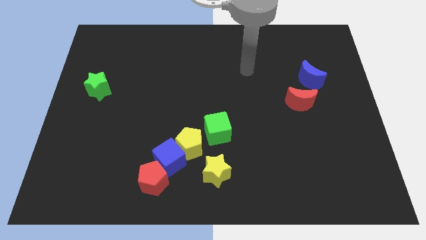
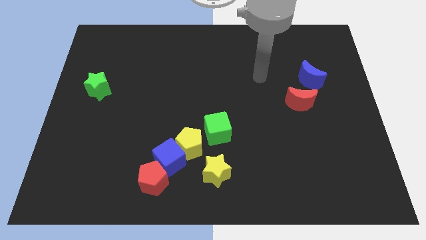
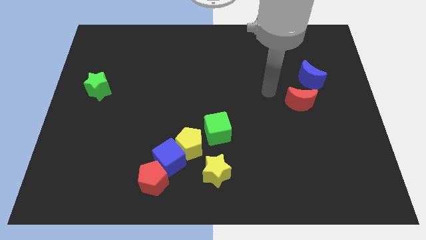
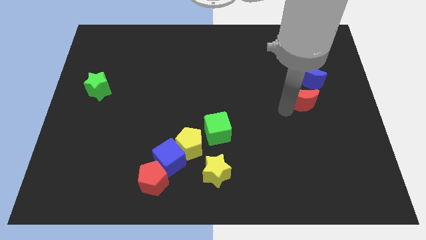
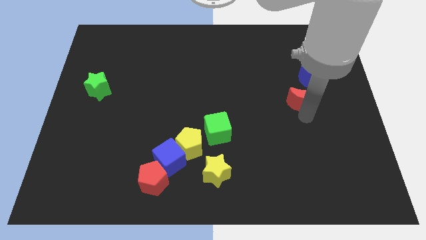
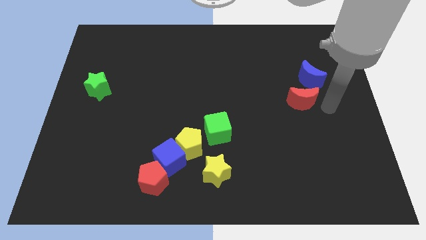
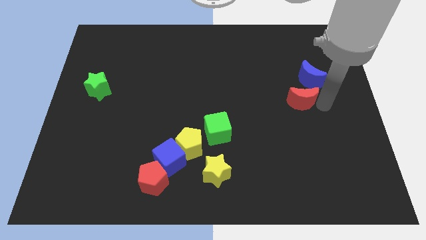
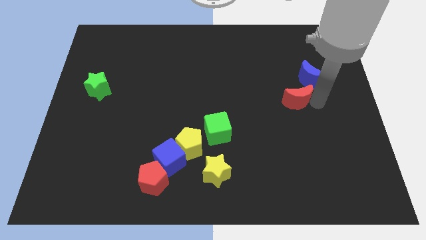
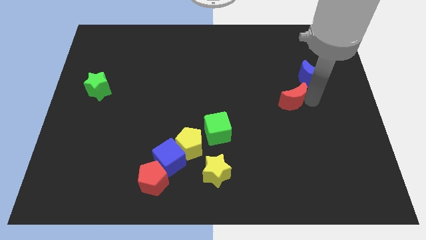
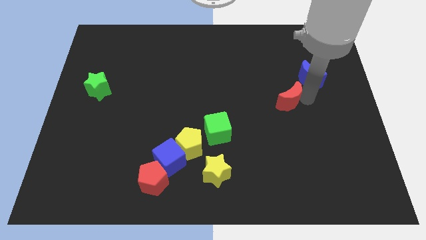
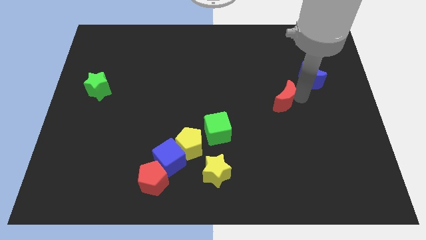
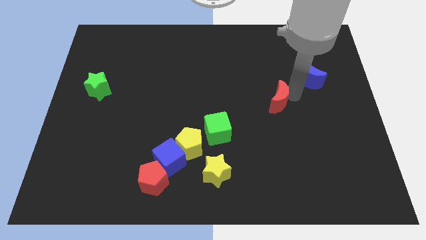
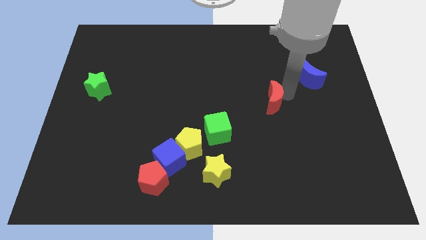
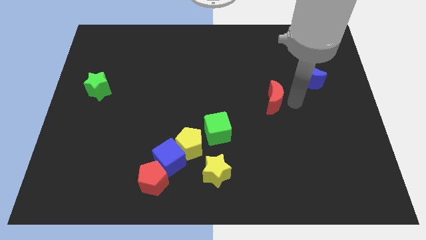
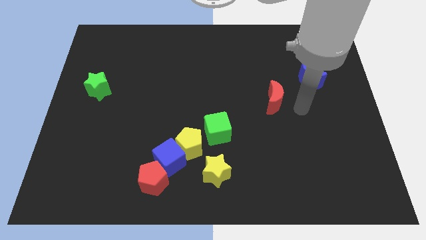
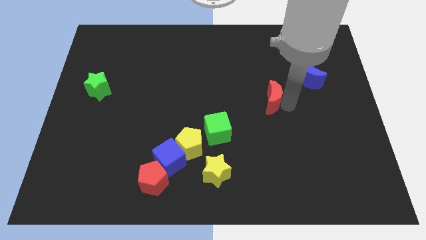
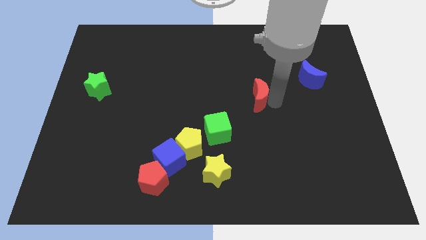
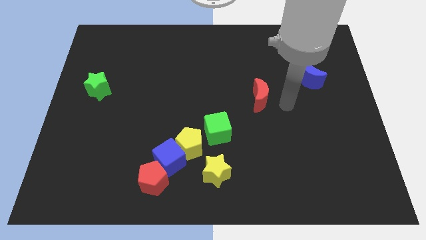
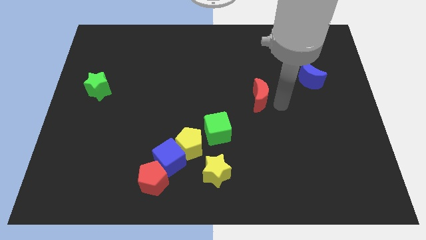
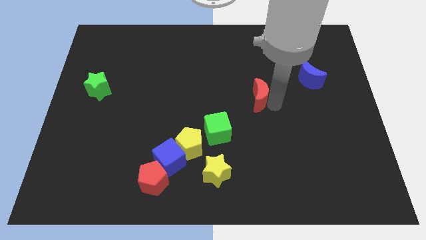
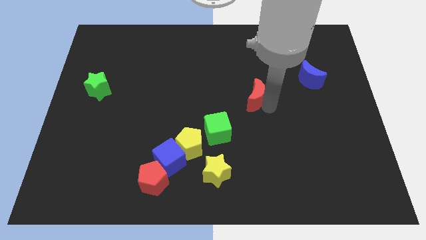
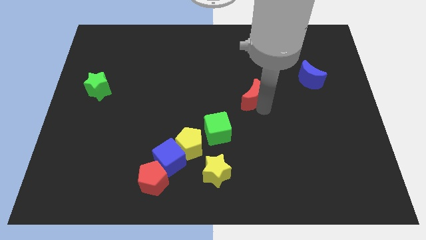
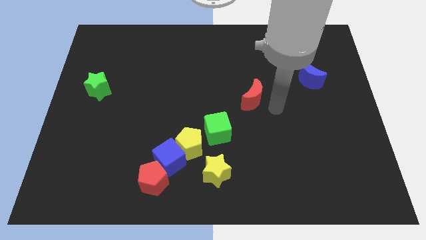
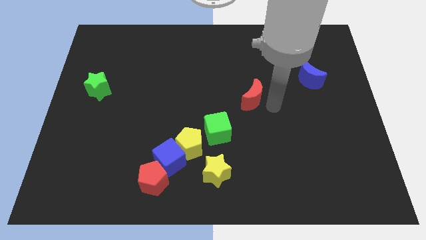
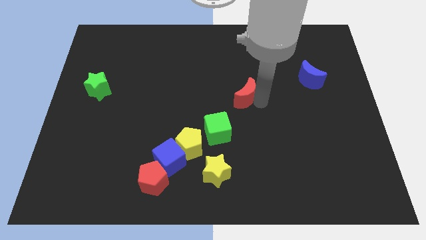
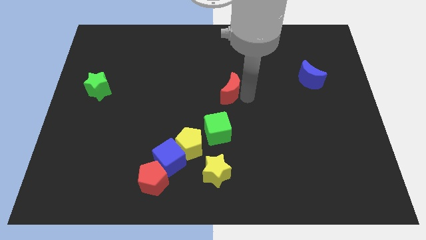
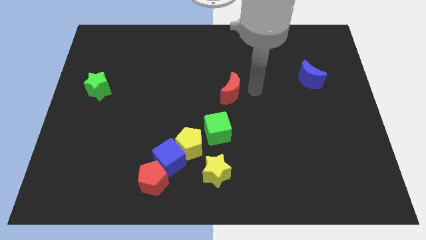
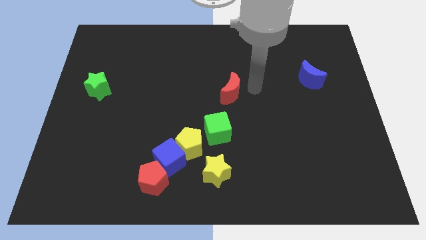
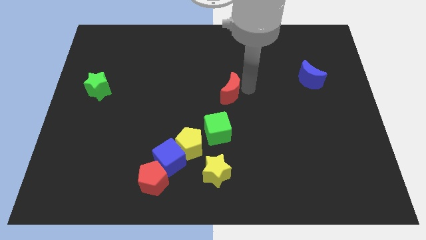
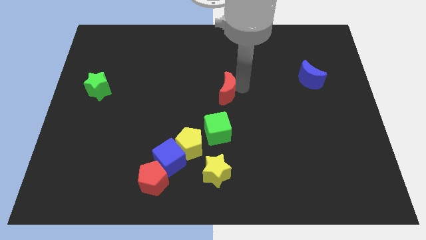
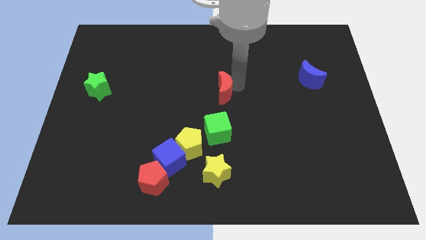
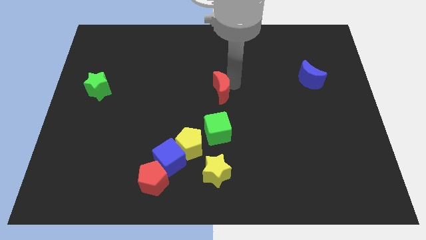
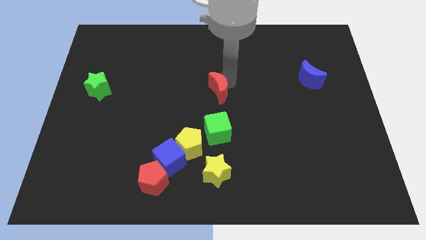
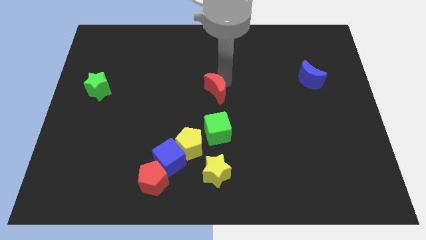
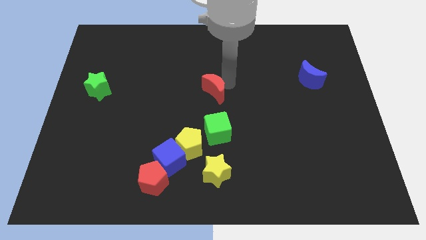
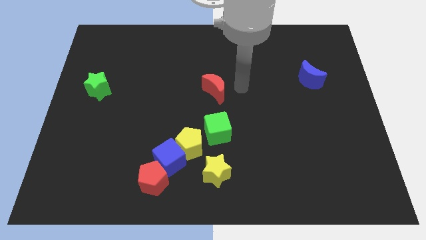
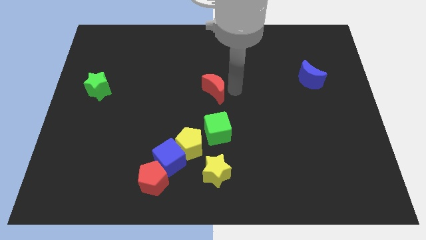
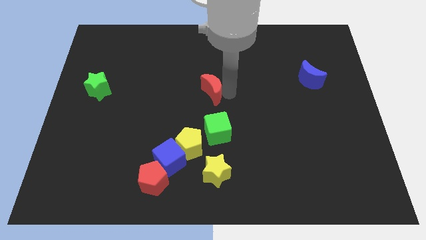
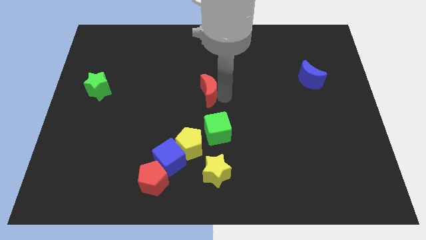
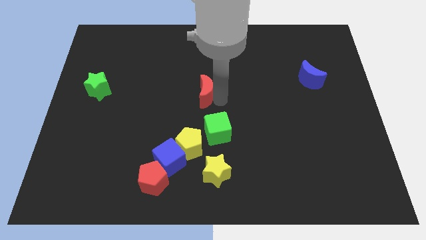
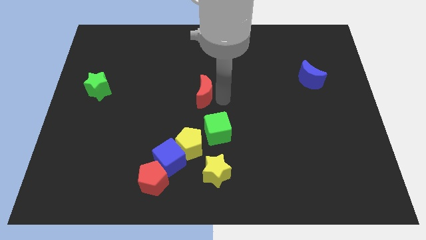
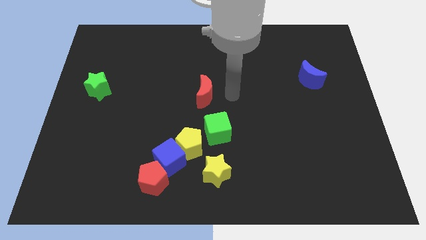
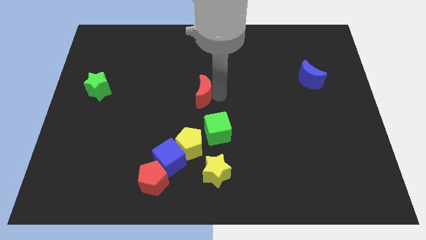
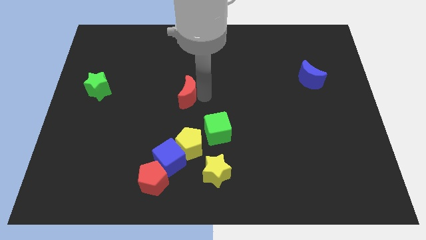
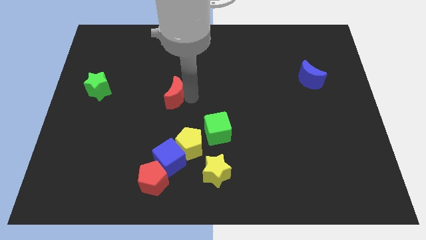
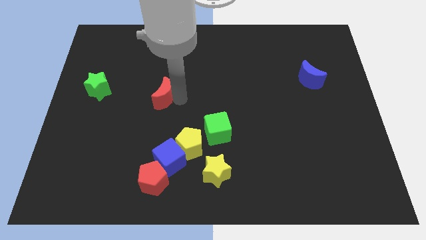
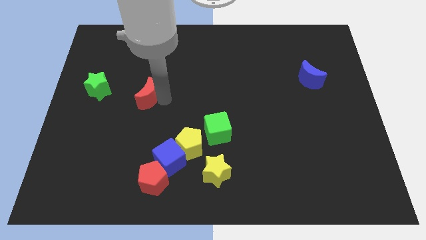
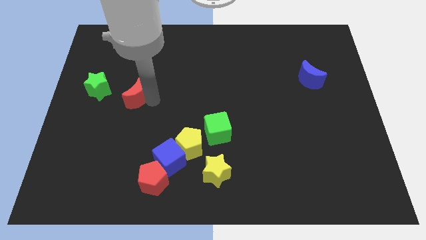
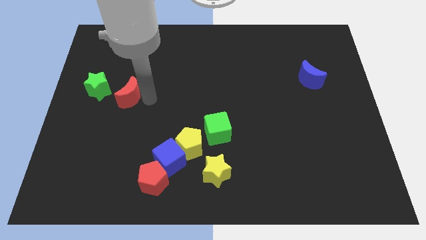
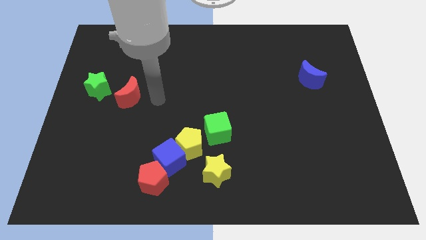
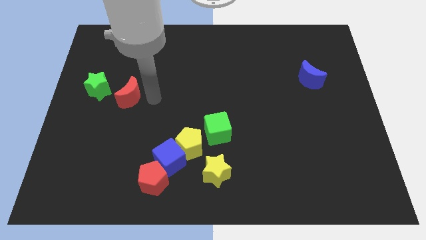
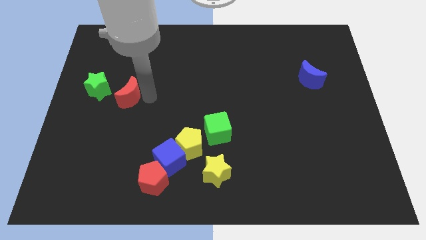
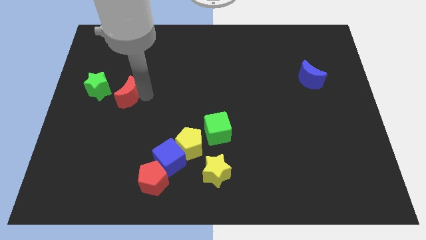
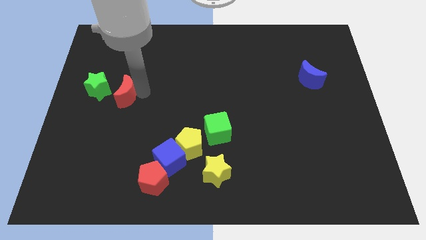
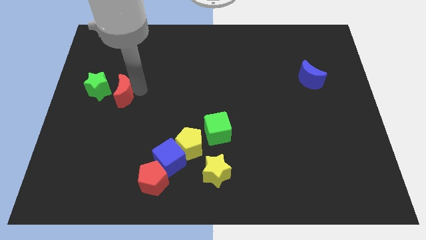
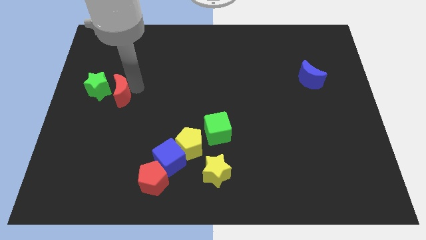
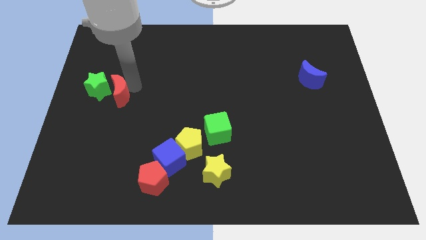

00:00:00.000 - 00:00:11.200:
push the red moon next to the green star

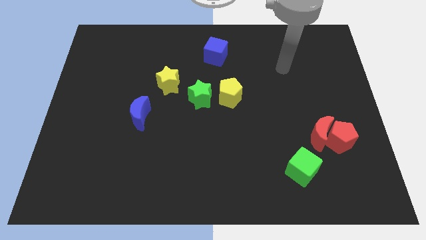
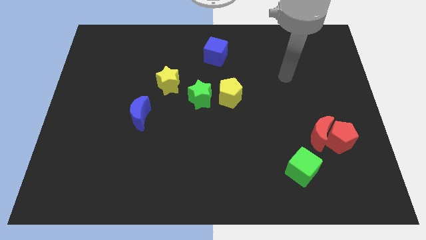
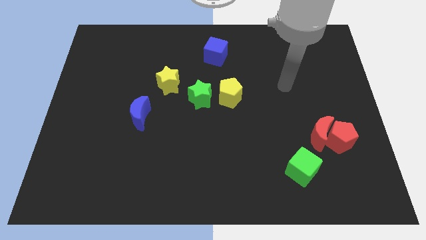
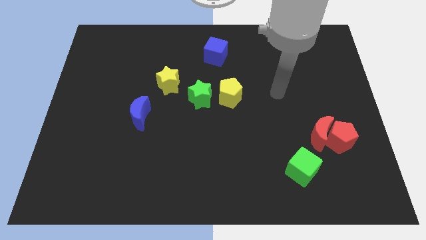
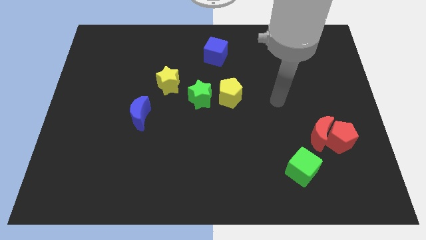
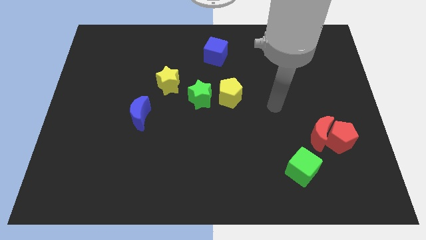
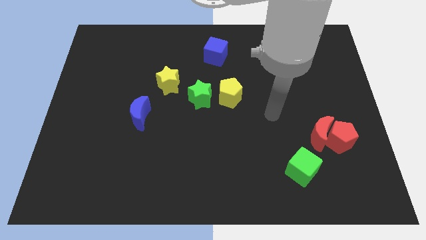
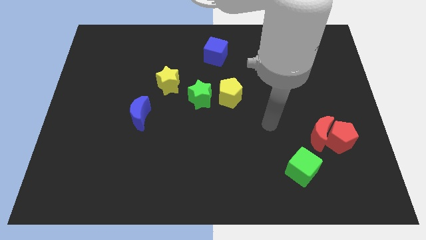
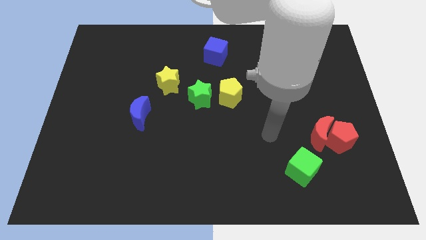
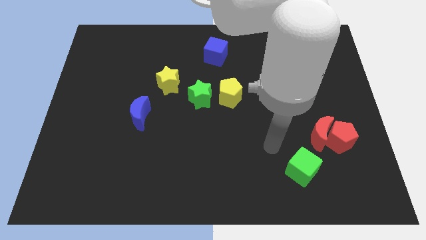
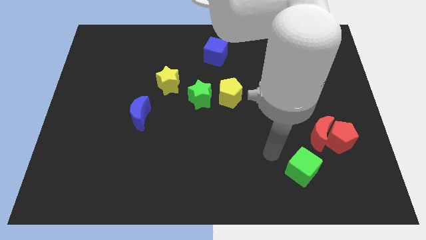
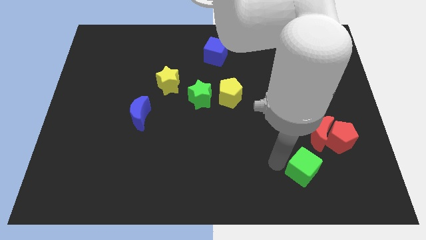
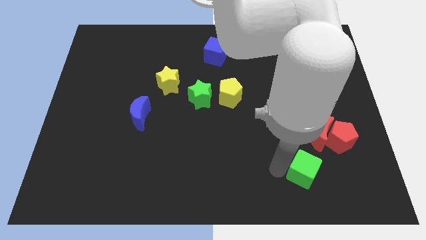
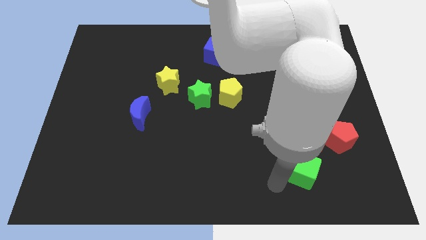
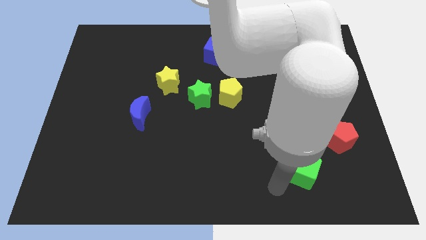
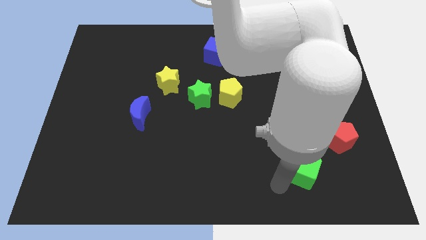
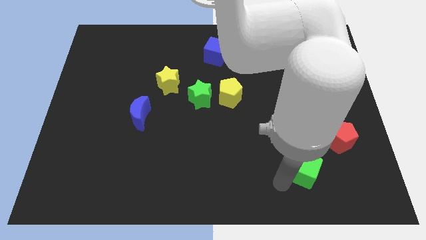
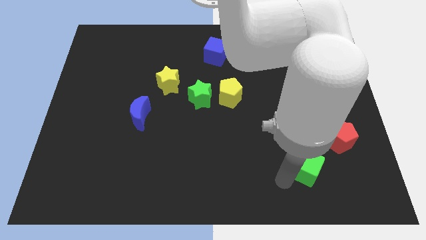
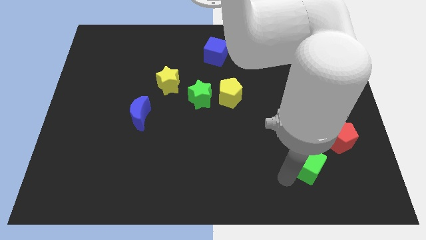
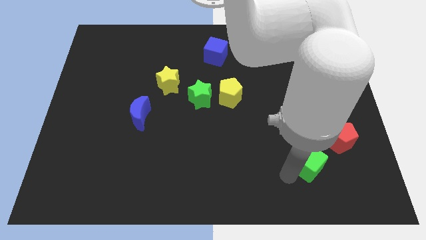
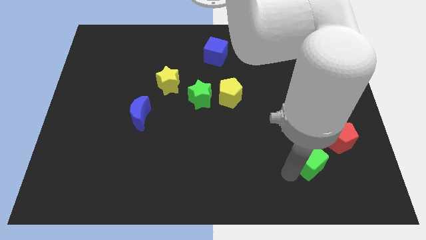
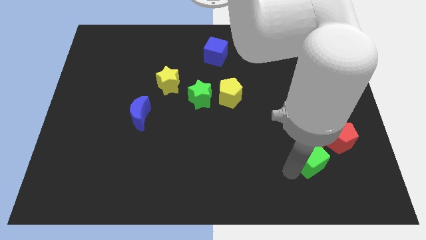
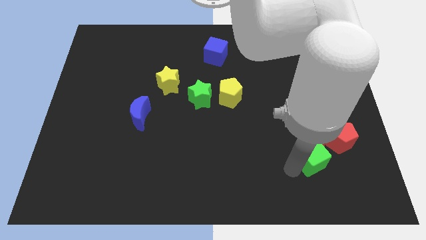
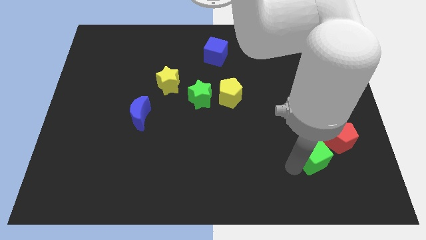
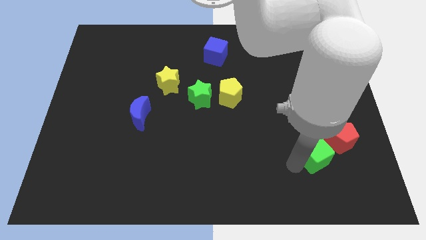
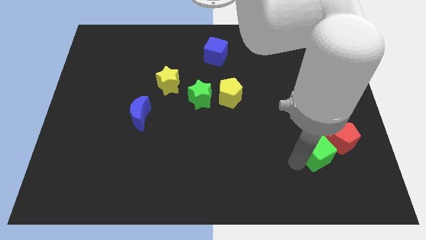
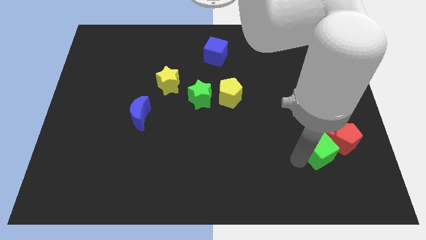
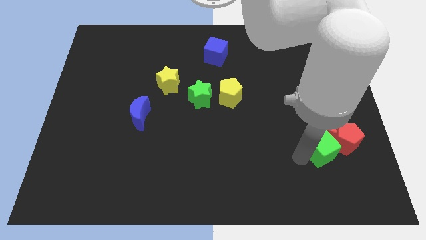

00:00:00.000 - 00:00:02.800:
slide the green cube towards the red pentagon
